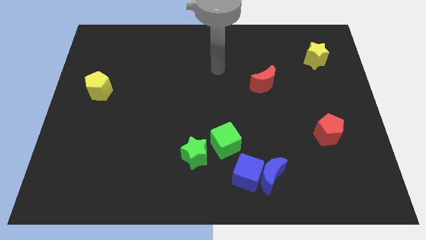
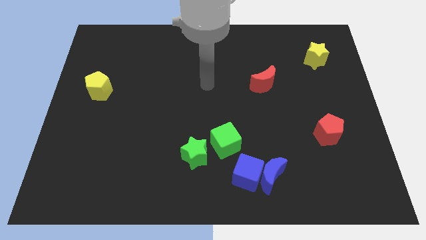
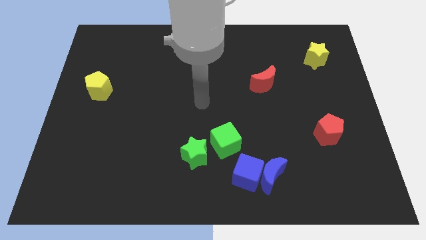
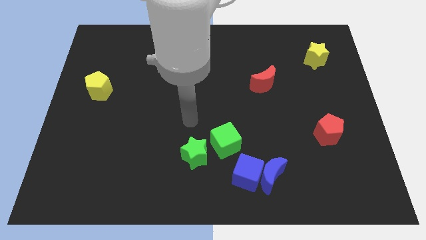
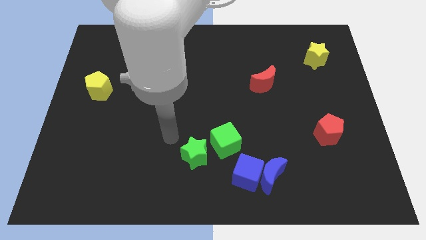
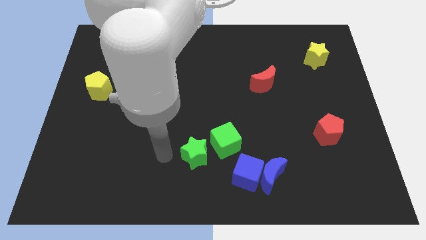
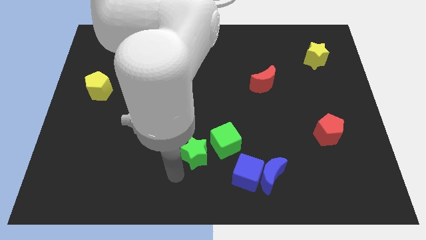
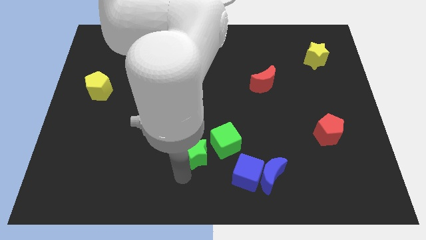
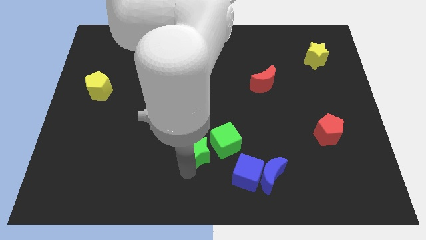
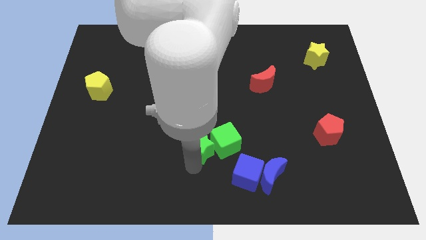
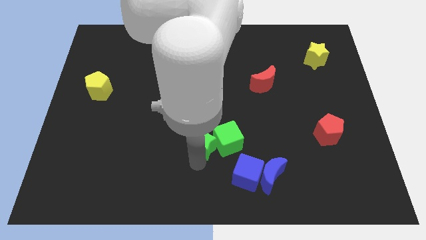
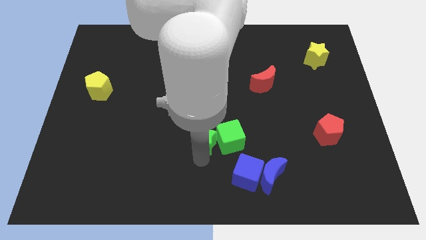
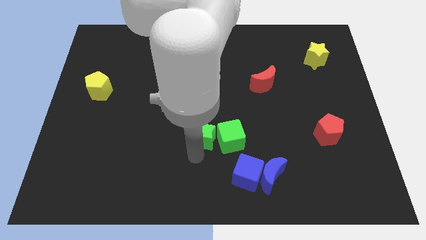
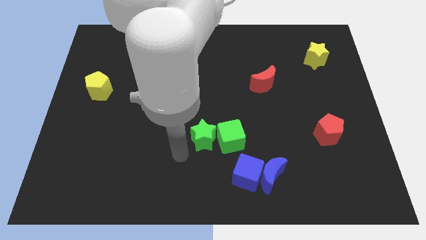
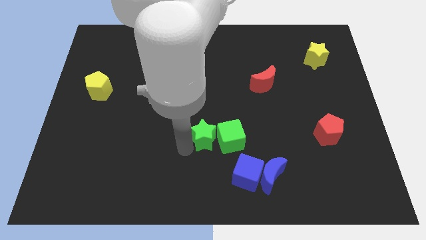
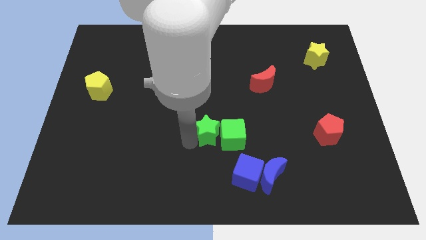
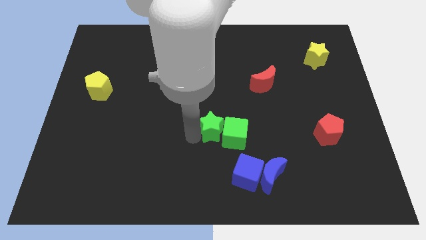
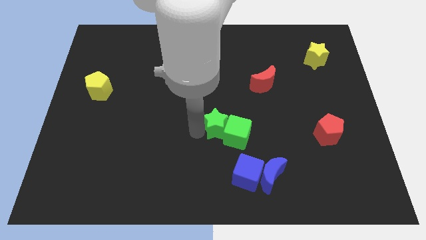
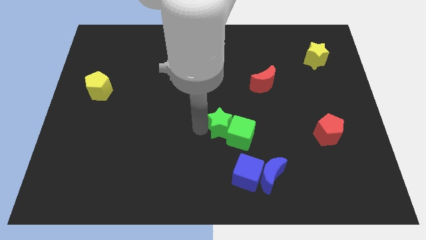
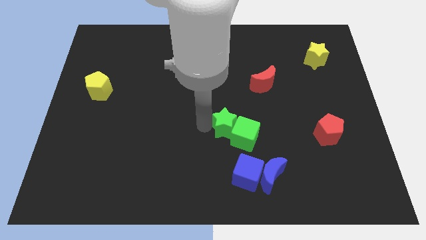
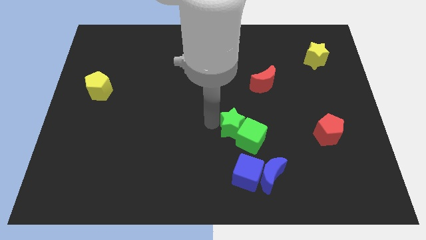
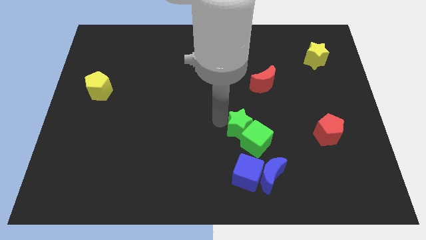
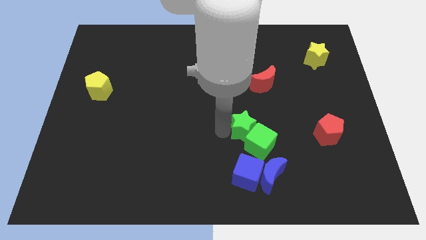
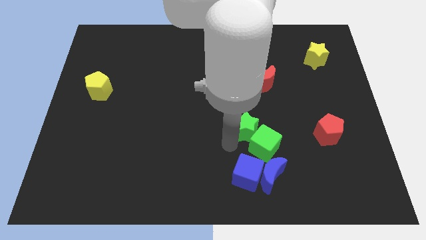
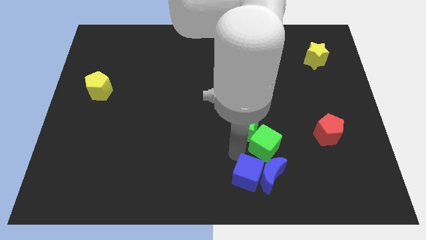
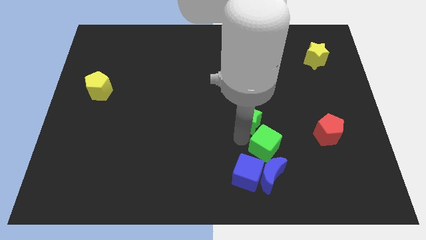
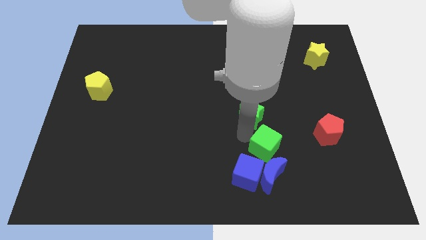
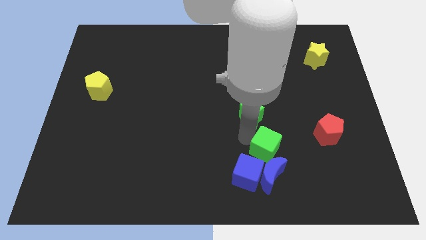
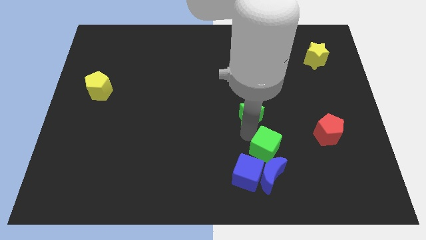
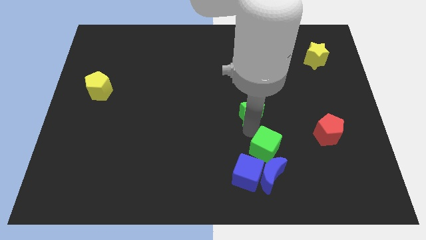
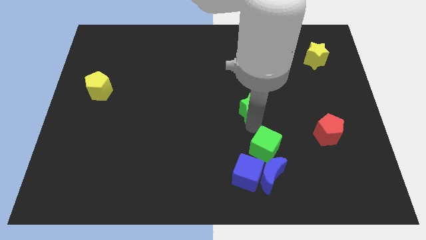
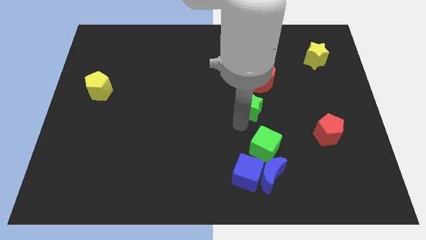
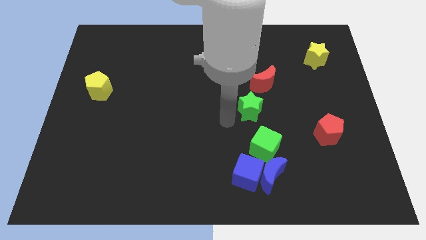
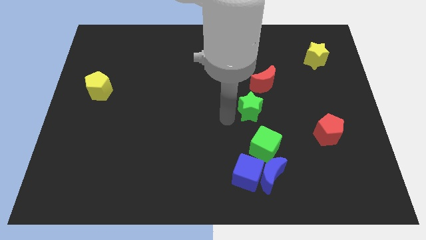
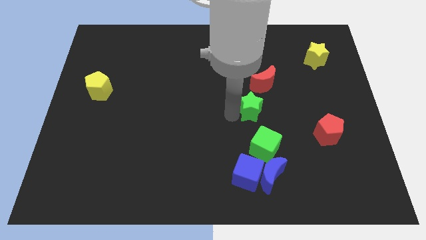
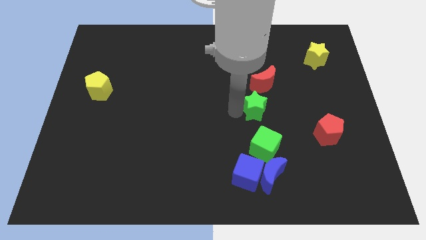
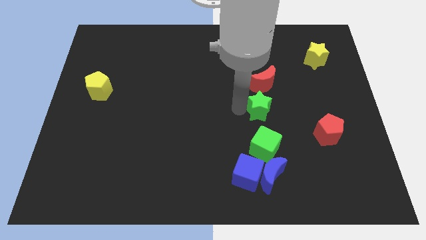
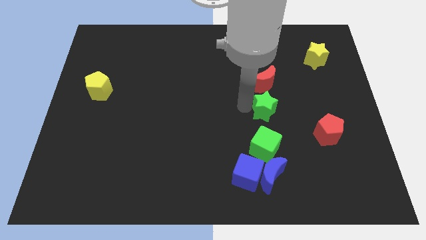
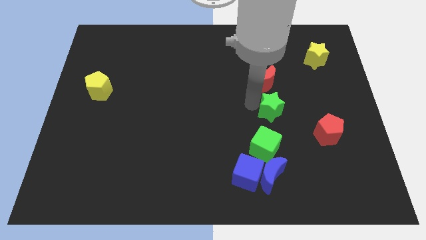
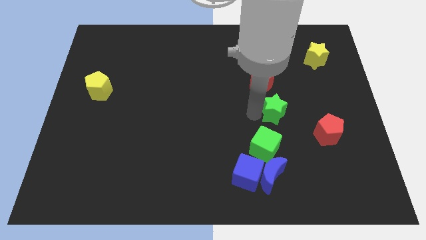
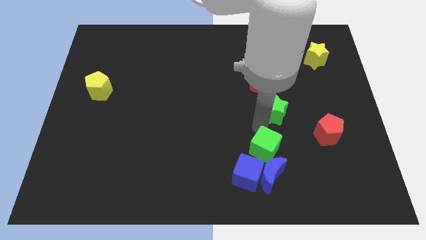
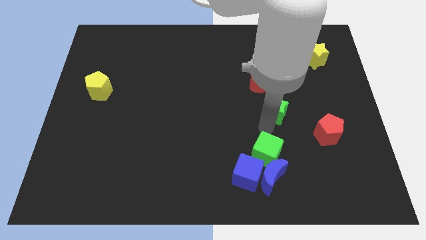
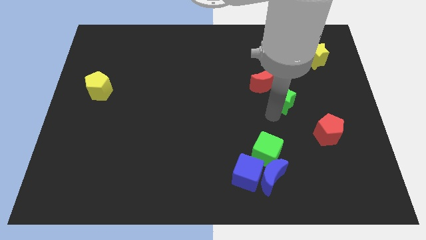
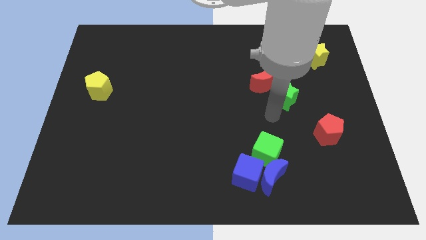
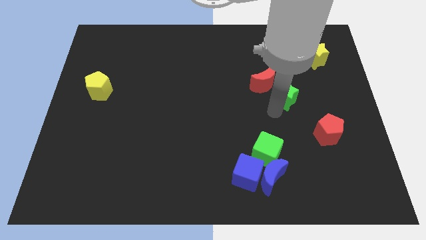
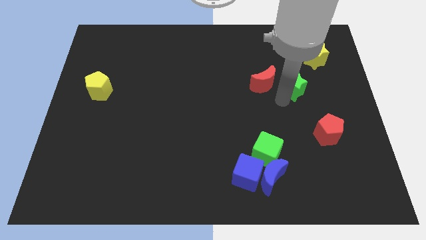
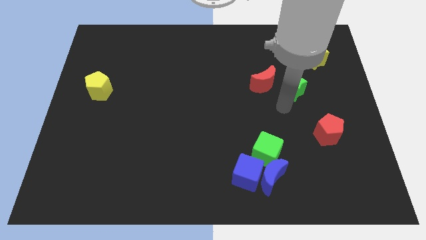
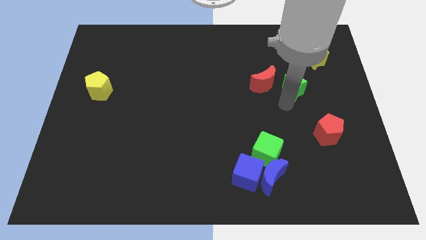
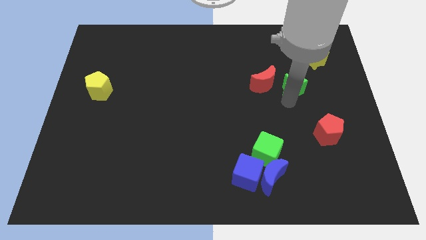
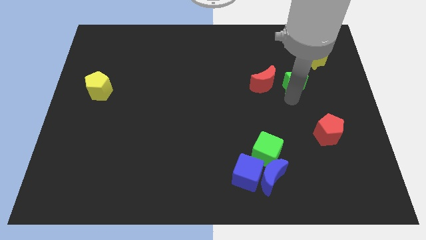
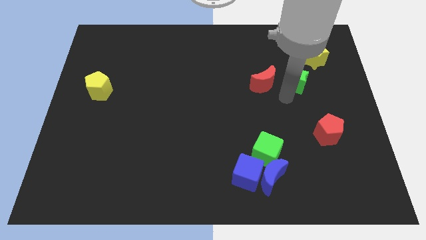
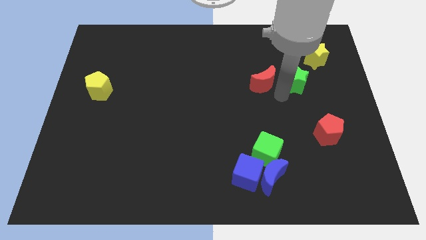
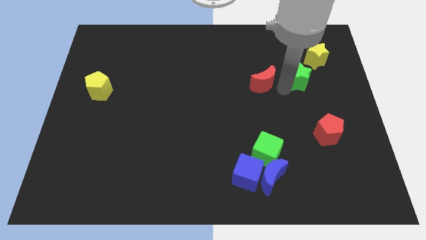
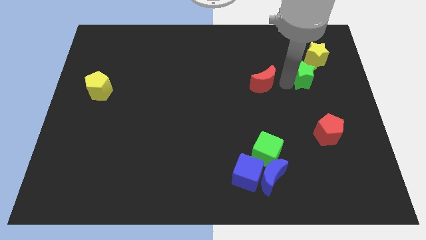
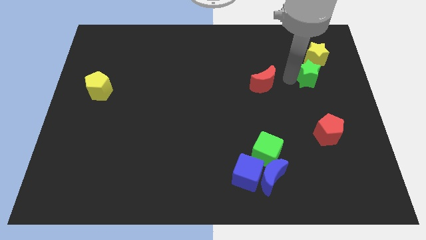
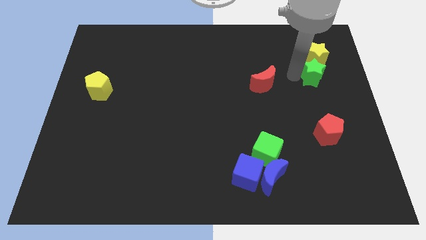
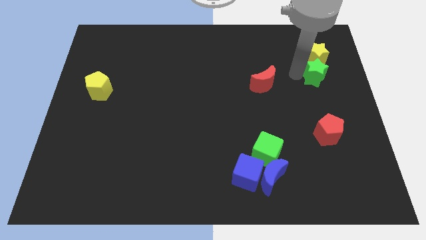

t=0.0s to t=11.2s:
put the green star towards the yellow star

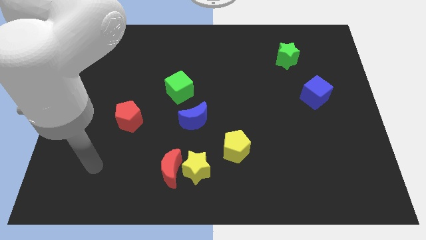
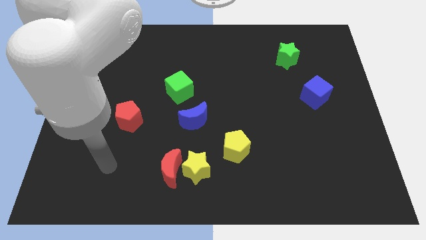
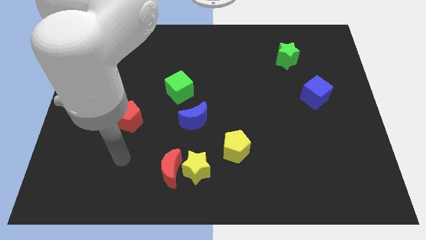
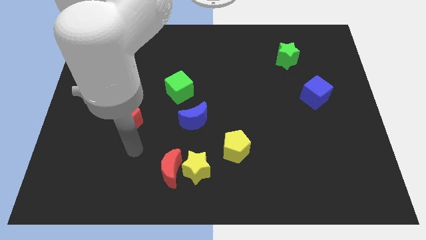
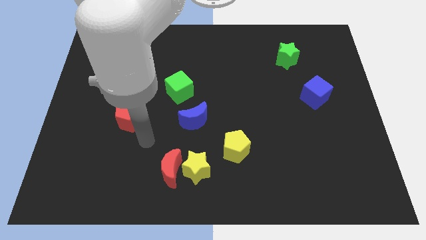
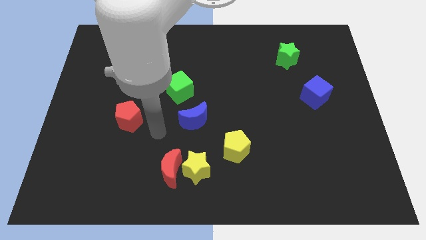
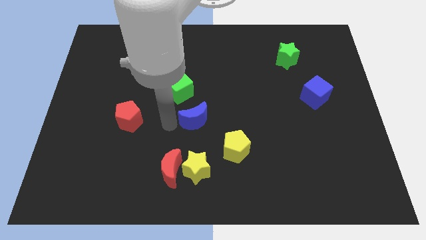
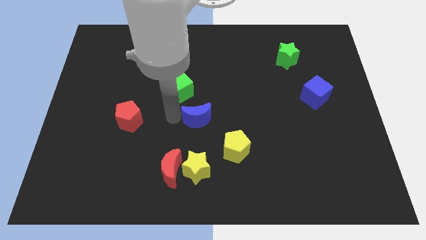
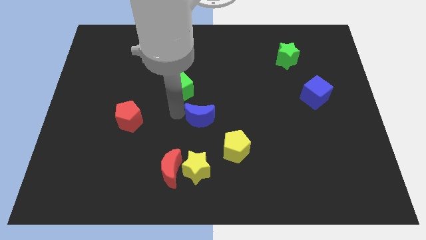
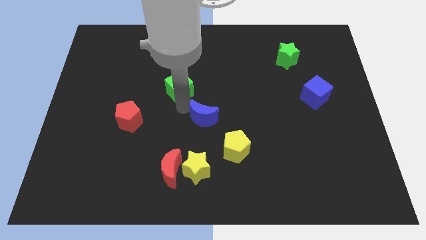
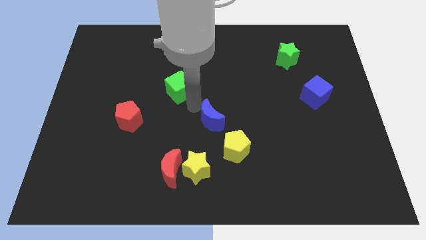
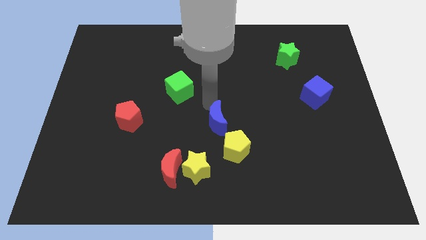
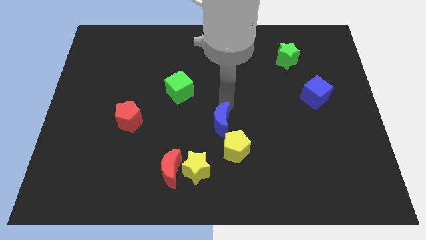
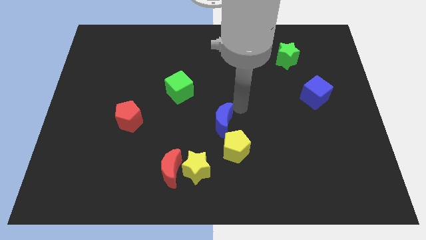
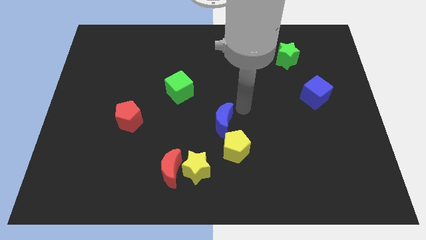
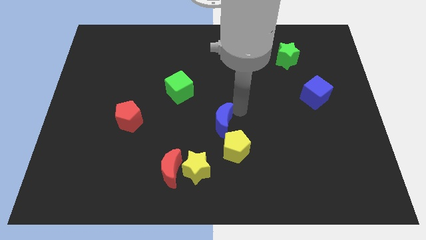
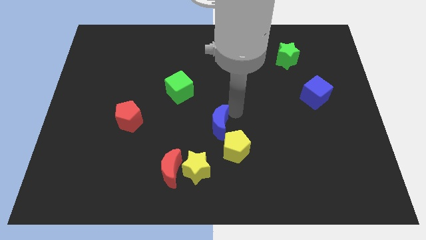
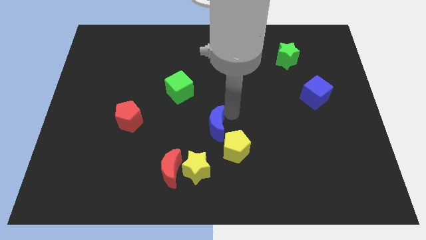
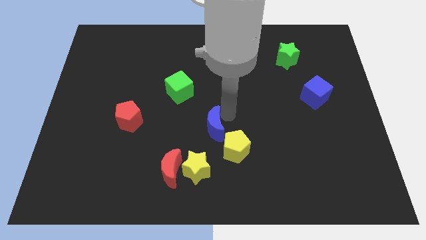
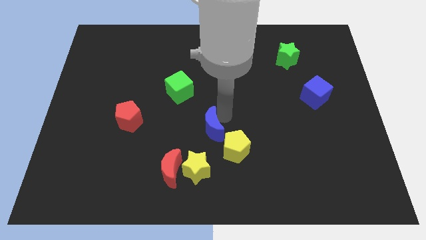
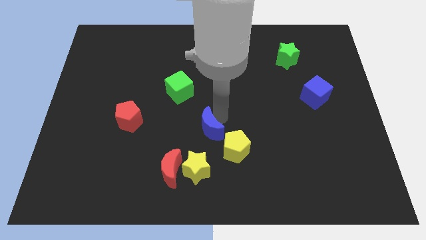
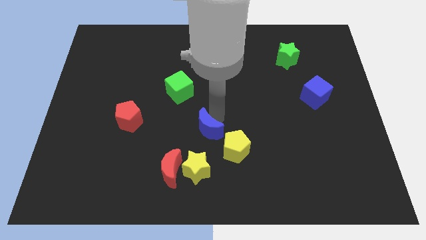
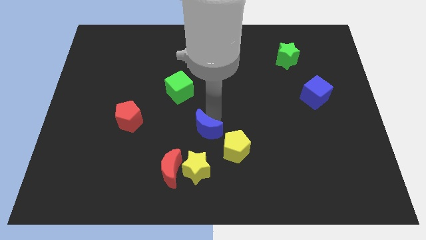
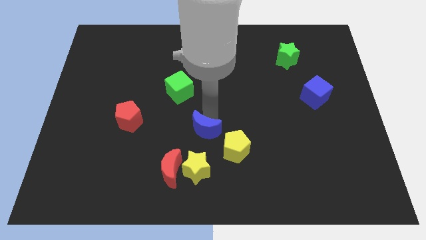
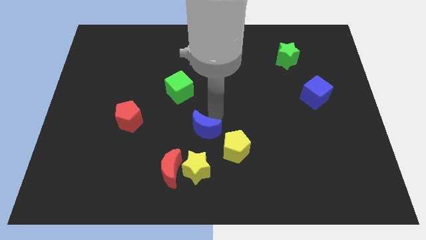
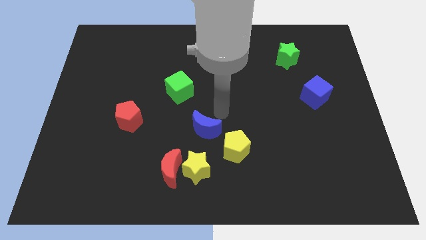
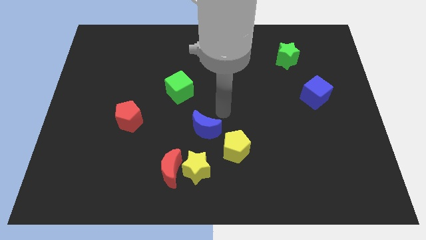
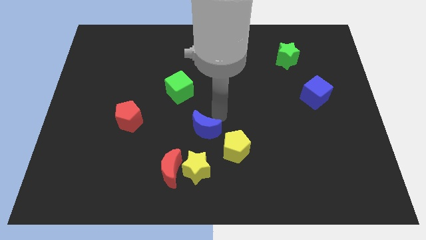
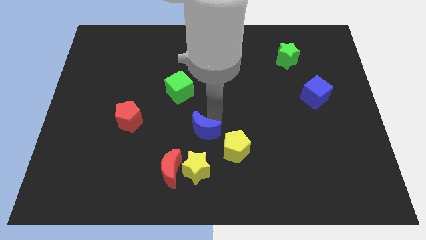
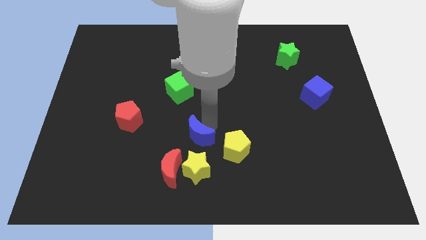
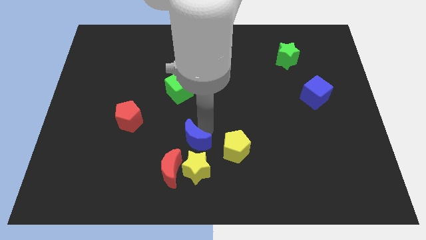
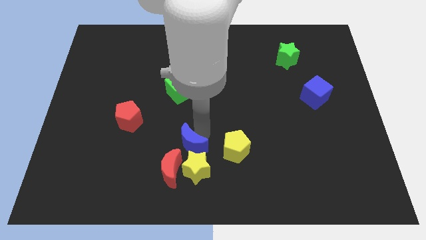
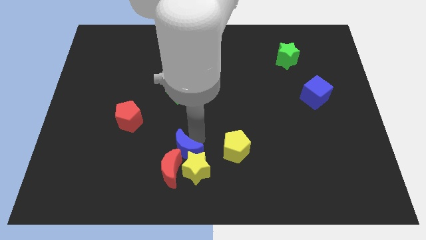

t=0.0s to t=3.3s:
move the blue moon towards the red moon
